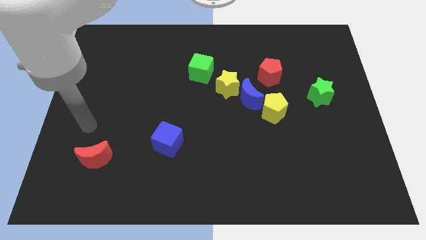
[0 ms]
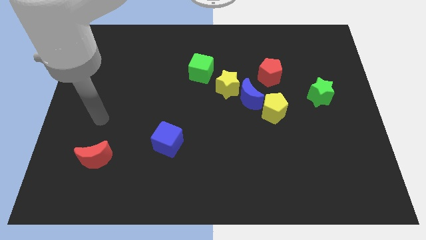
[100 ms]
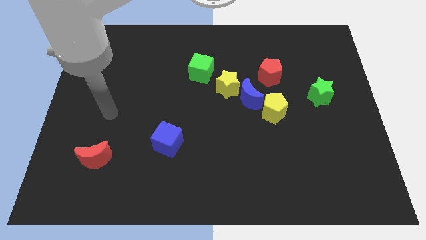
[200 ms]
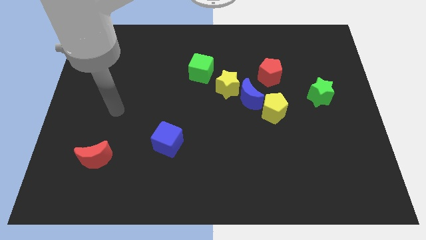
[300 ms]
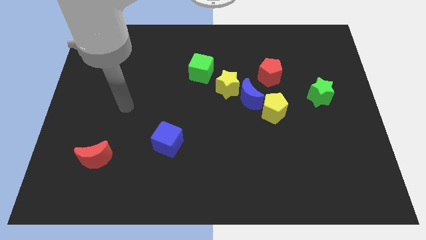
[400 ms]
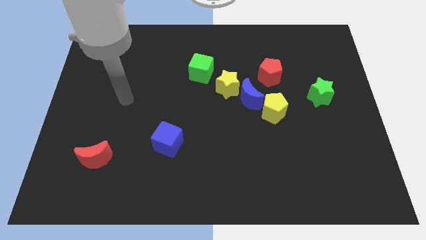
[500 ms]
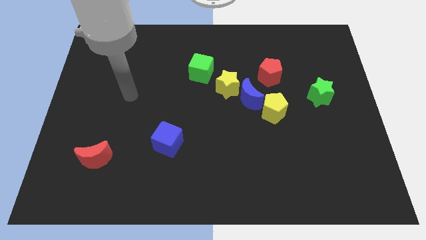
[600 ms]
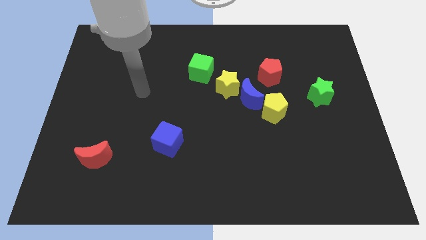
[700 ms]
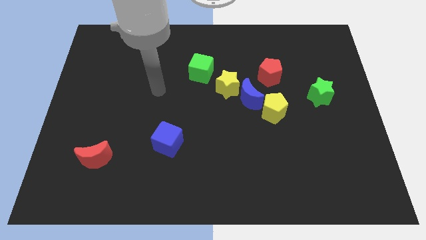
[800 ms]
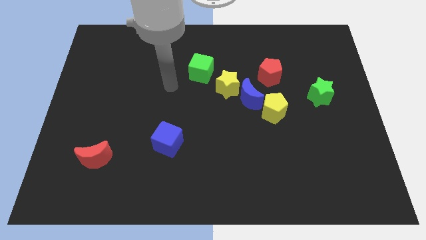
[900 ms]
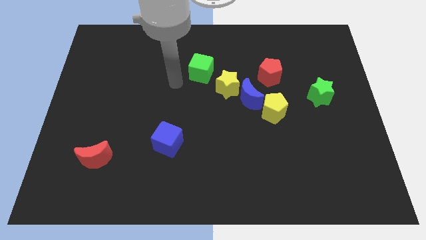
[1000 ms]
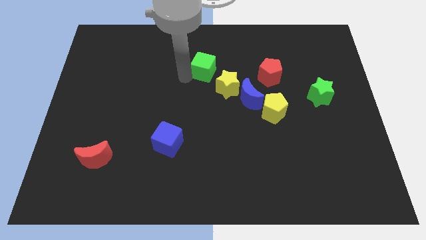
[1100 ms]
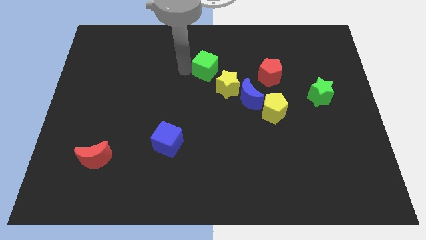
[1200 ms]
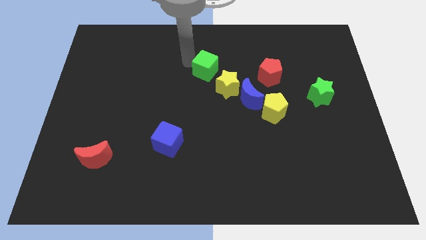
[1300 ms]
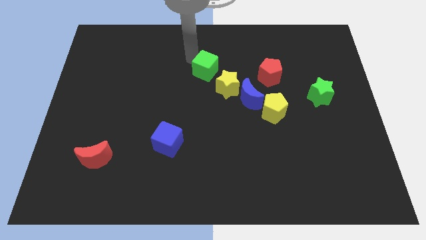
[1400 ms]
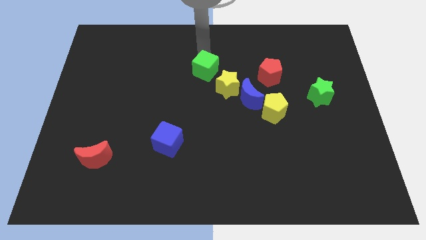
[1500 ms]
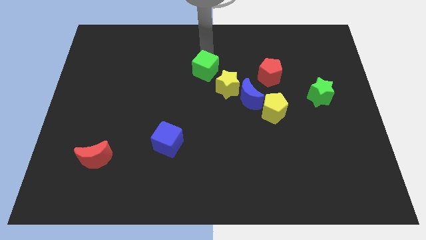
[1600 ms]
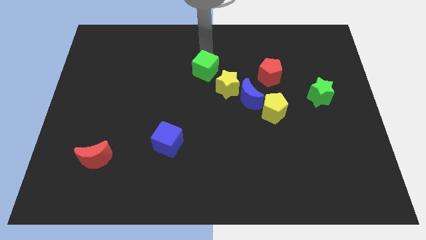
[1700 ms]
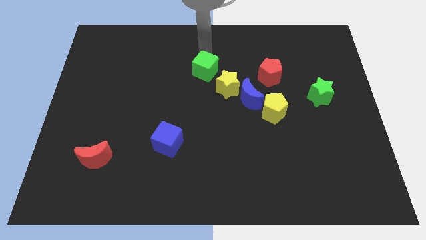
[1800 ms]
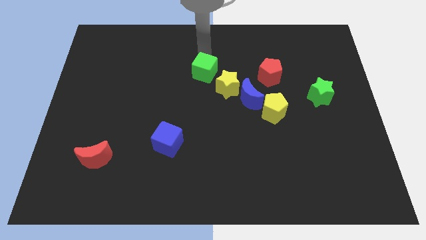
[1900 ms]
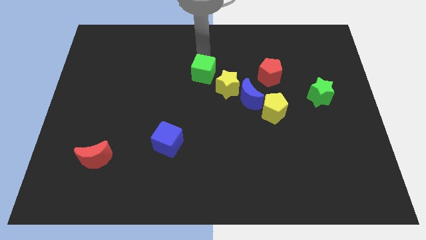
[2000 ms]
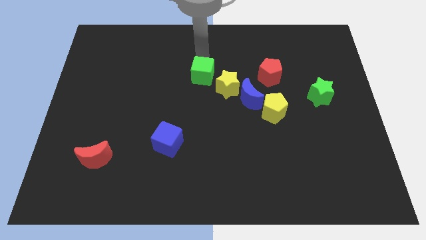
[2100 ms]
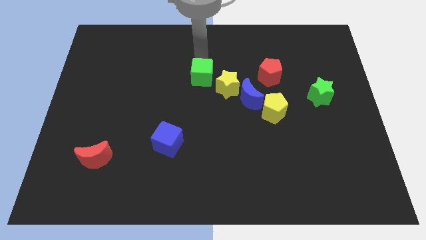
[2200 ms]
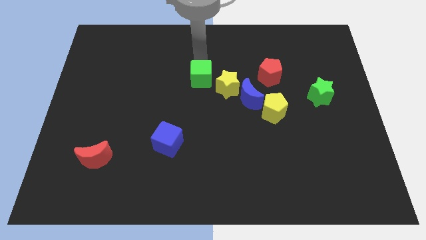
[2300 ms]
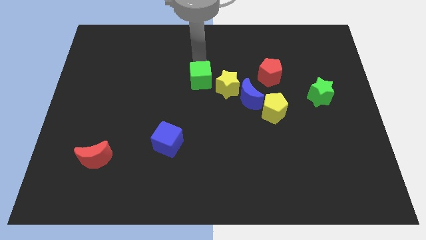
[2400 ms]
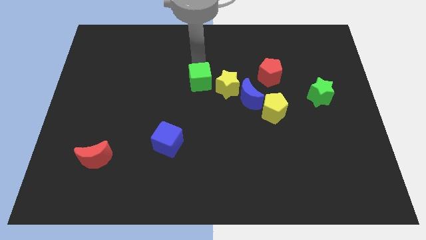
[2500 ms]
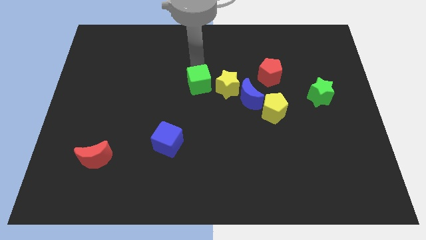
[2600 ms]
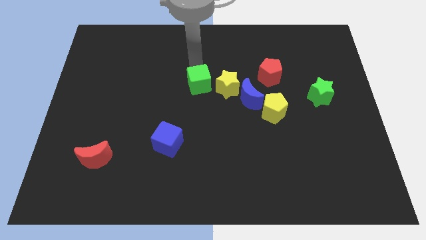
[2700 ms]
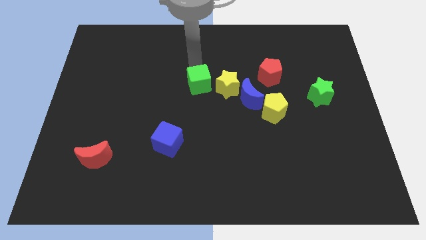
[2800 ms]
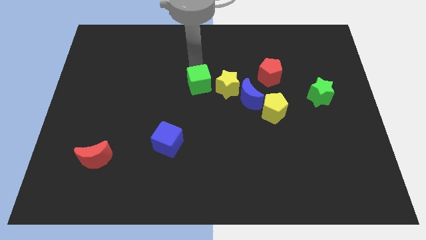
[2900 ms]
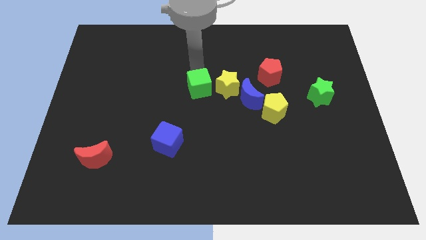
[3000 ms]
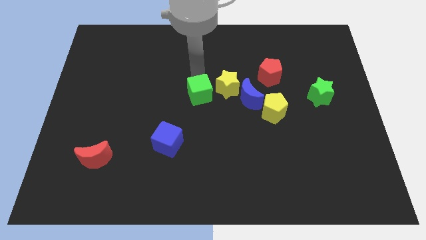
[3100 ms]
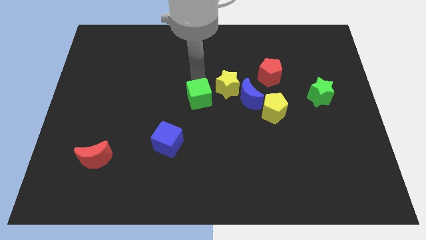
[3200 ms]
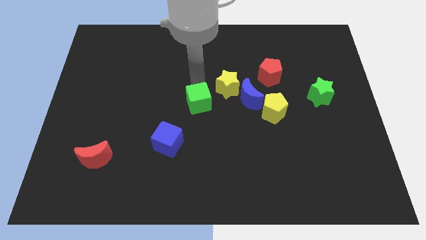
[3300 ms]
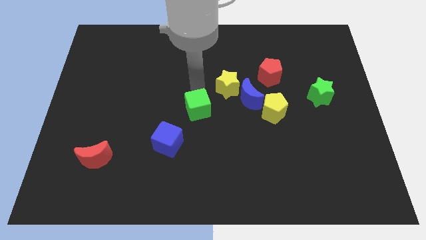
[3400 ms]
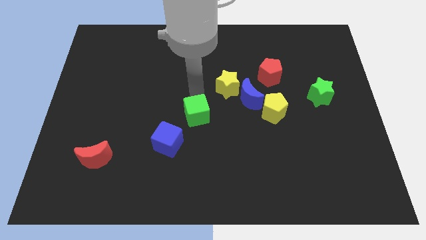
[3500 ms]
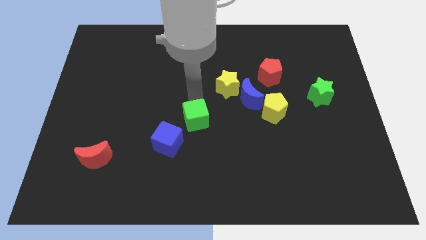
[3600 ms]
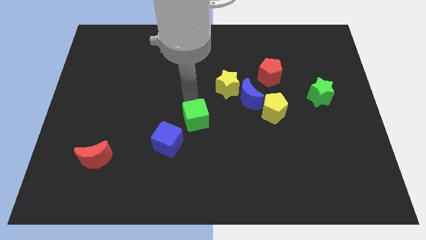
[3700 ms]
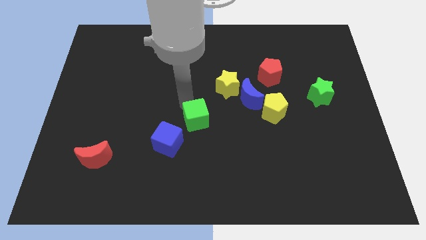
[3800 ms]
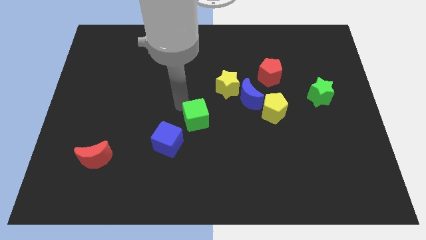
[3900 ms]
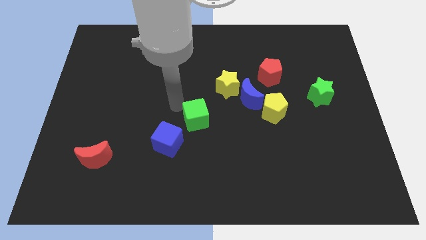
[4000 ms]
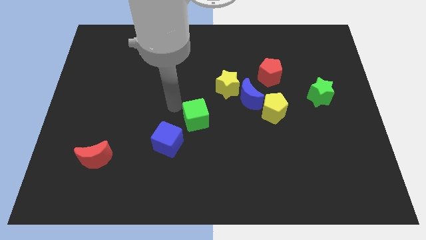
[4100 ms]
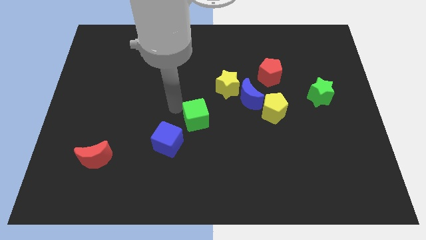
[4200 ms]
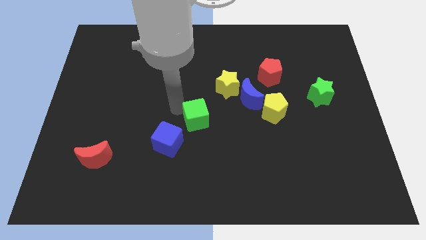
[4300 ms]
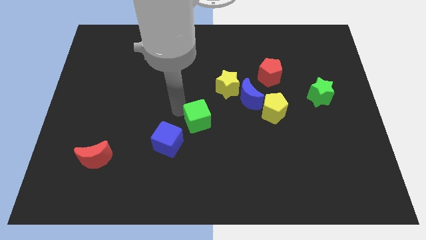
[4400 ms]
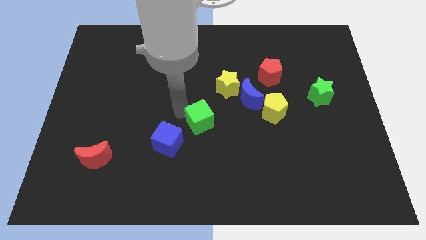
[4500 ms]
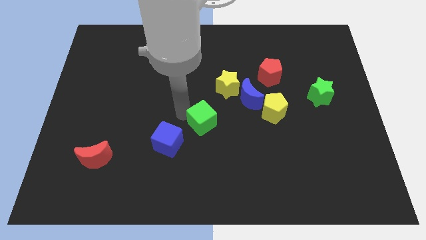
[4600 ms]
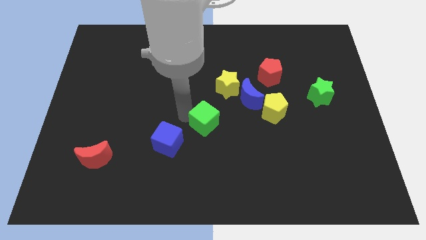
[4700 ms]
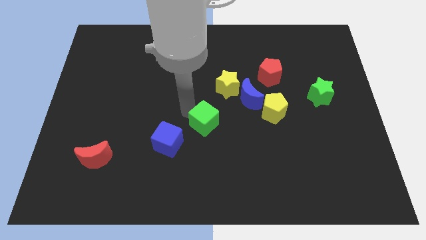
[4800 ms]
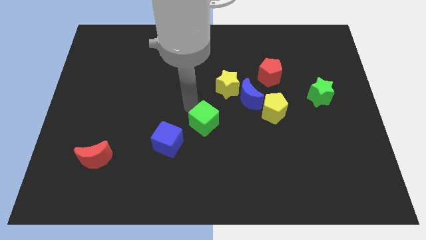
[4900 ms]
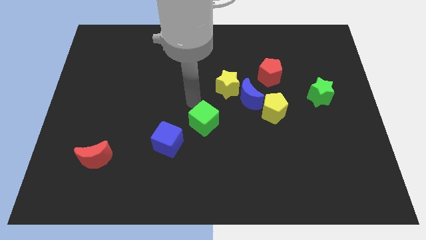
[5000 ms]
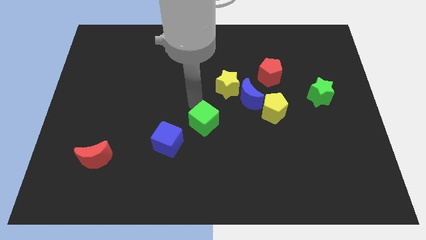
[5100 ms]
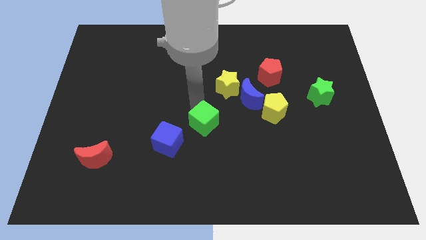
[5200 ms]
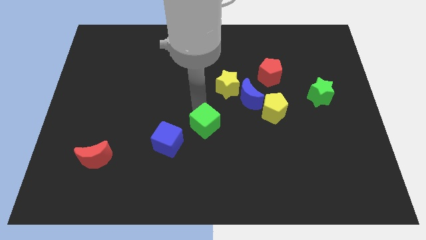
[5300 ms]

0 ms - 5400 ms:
slide the green cube just right of the blue cube

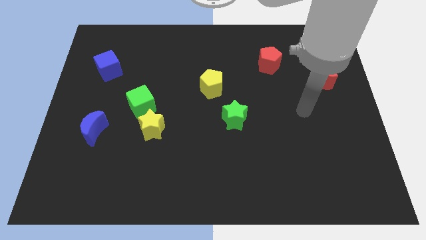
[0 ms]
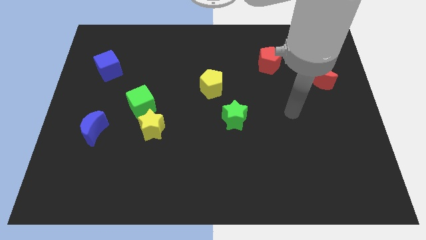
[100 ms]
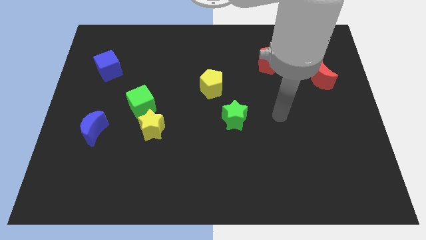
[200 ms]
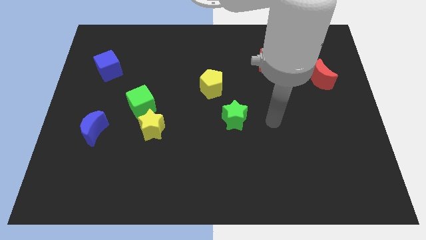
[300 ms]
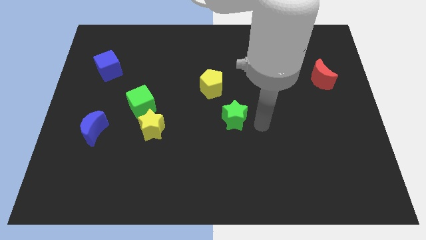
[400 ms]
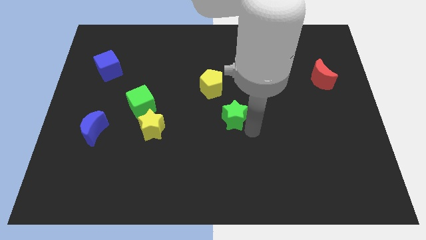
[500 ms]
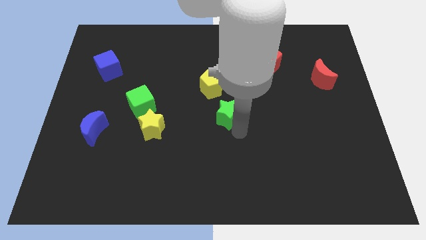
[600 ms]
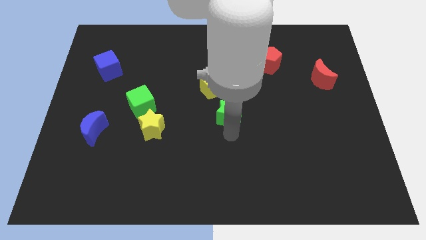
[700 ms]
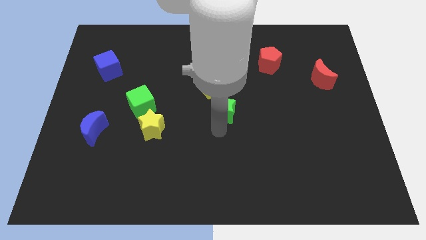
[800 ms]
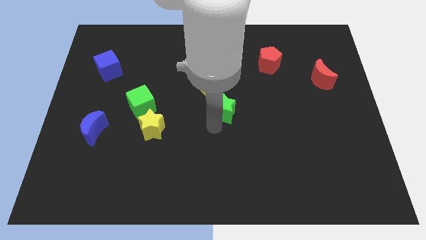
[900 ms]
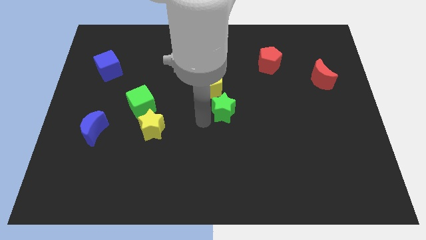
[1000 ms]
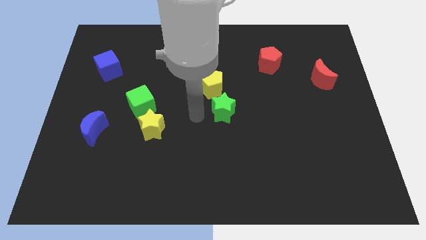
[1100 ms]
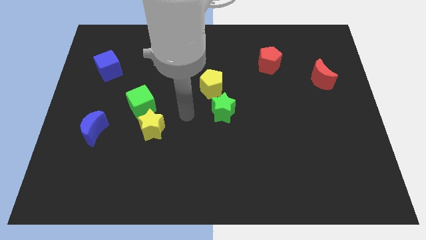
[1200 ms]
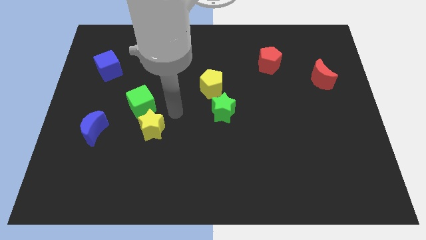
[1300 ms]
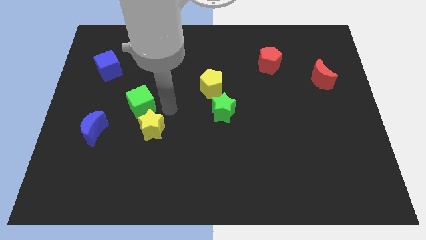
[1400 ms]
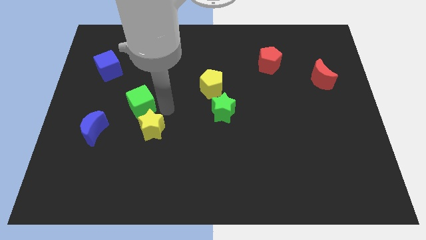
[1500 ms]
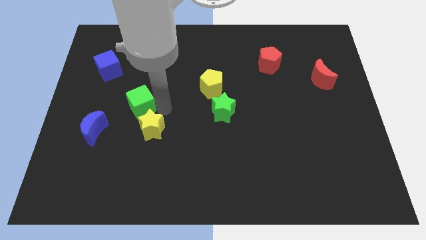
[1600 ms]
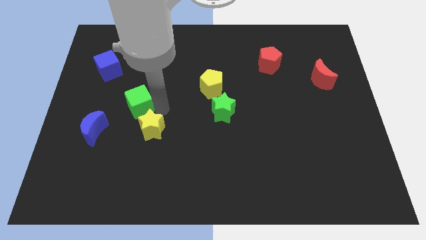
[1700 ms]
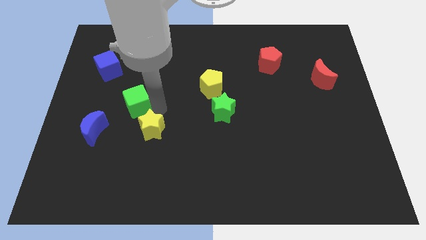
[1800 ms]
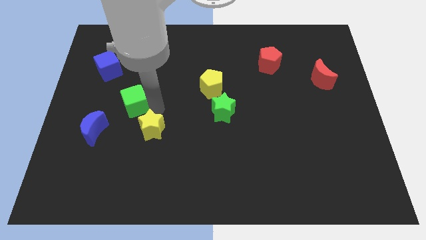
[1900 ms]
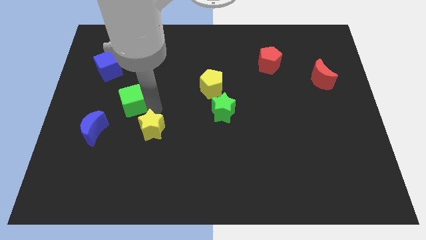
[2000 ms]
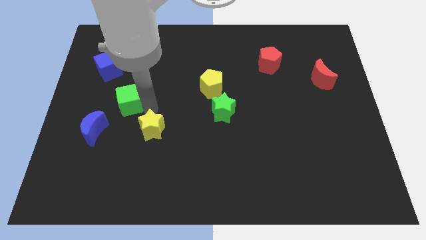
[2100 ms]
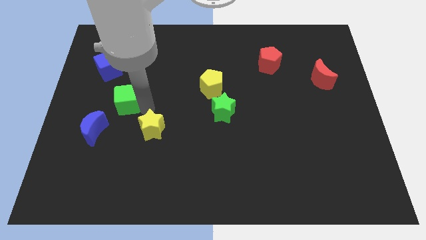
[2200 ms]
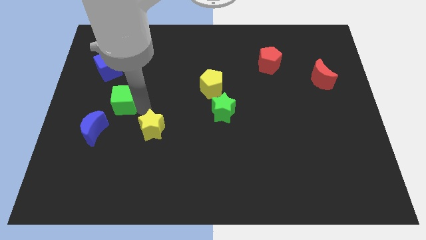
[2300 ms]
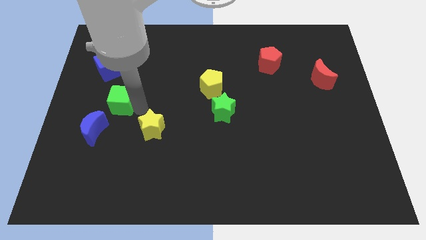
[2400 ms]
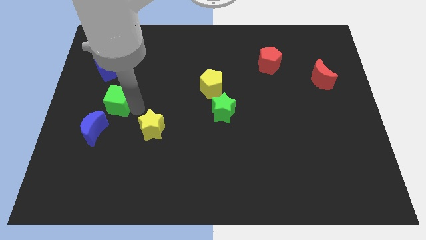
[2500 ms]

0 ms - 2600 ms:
slide the green cube below the blue cube
